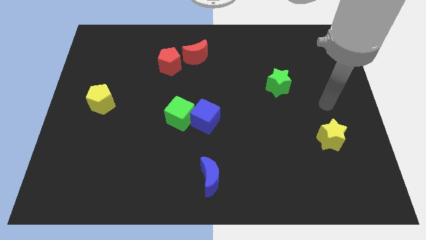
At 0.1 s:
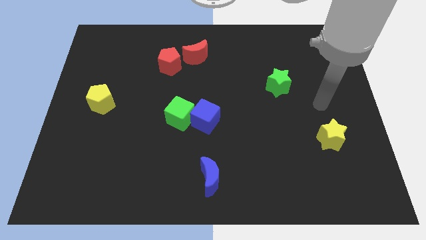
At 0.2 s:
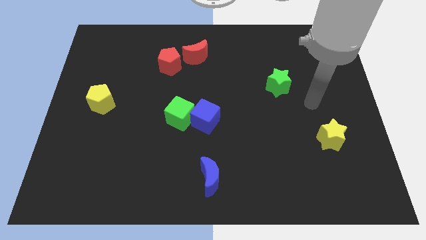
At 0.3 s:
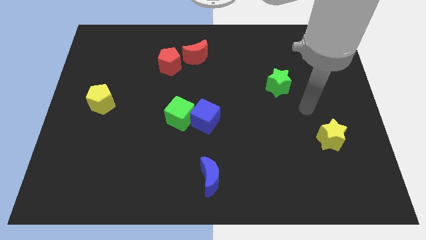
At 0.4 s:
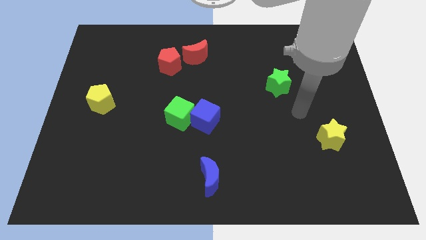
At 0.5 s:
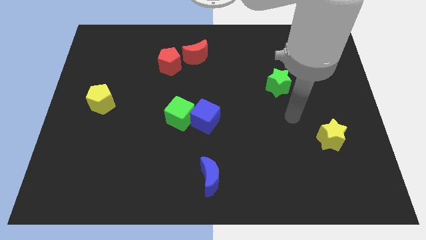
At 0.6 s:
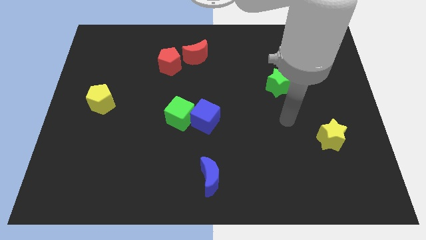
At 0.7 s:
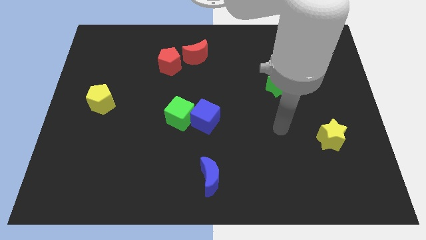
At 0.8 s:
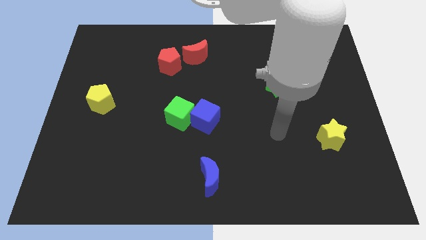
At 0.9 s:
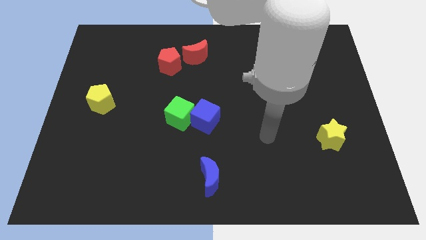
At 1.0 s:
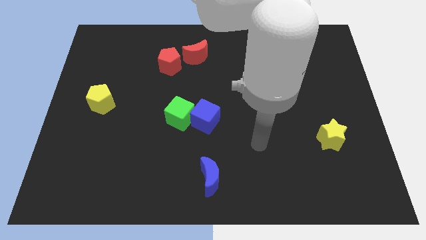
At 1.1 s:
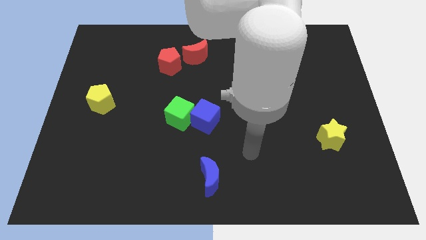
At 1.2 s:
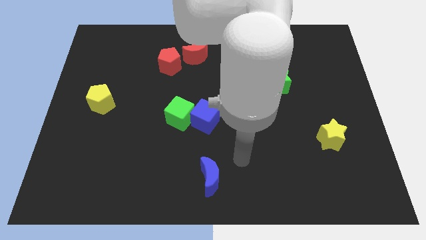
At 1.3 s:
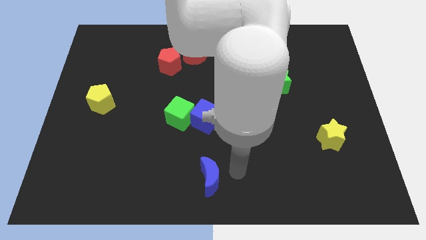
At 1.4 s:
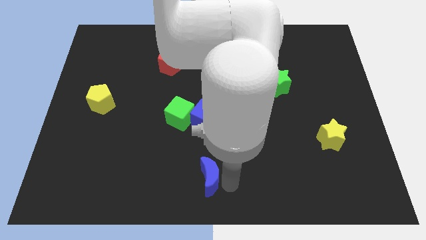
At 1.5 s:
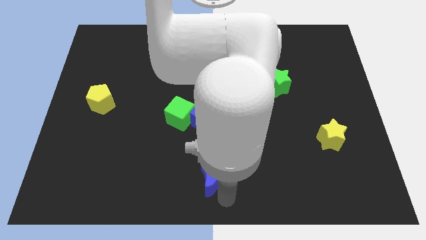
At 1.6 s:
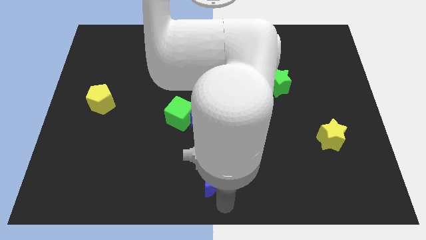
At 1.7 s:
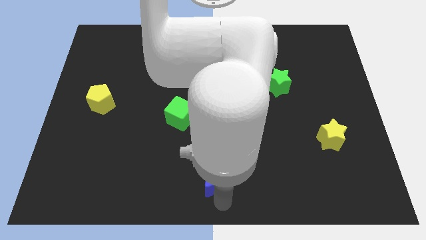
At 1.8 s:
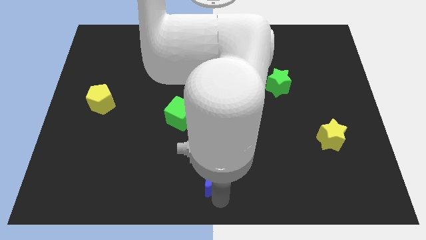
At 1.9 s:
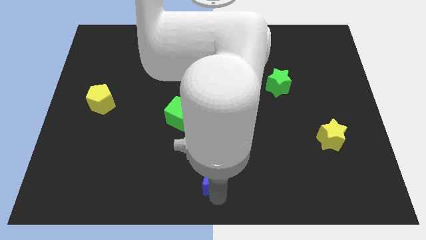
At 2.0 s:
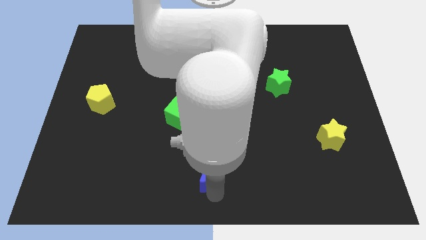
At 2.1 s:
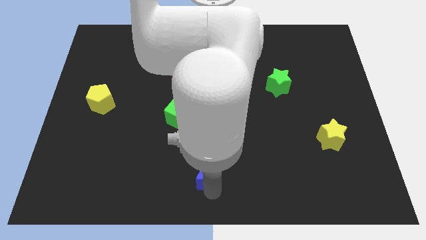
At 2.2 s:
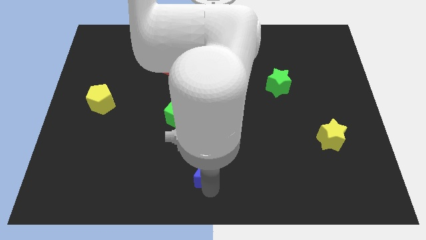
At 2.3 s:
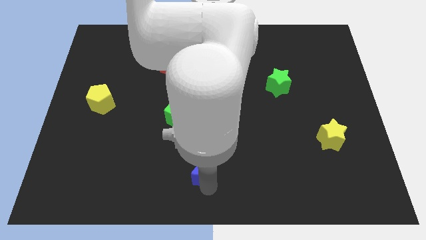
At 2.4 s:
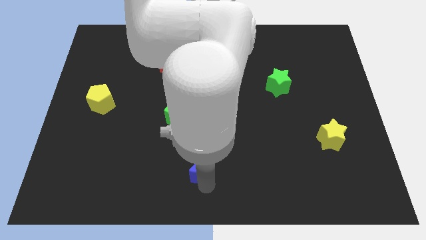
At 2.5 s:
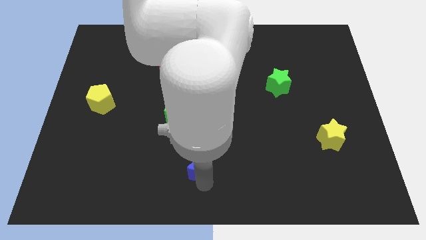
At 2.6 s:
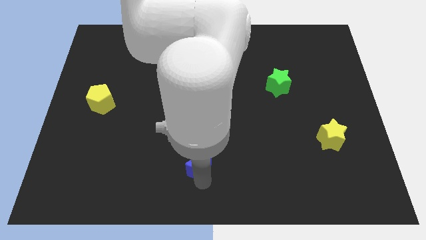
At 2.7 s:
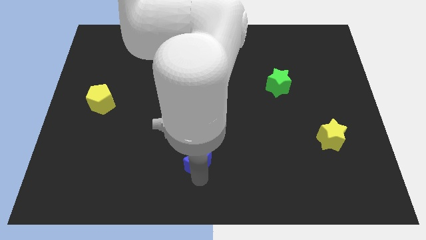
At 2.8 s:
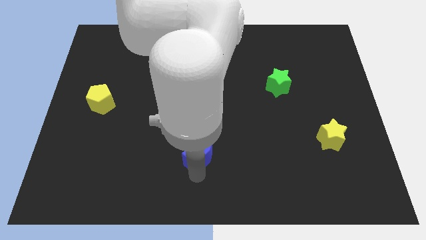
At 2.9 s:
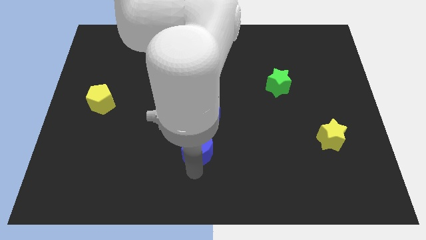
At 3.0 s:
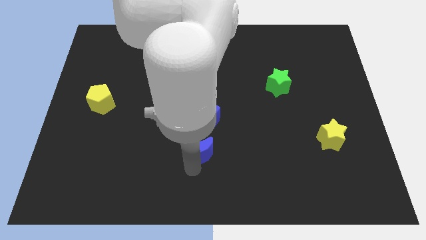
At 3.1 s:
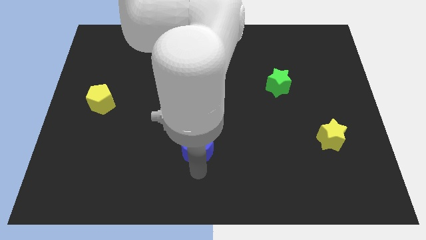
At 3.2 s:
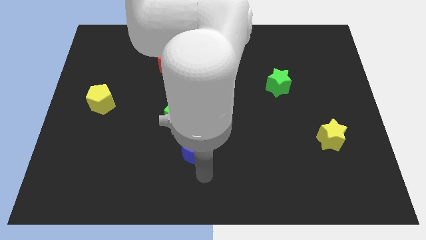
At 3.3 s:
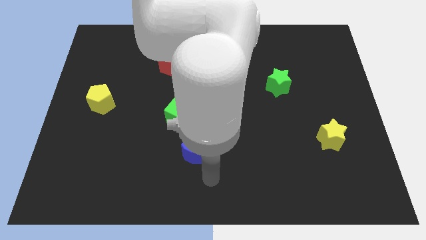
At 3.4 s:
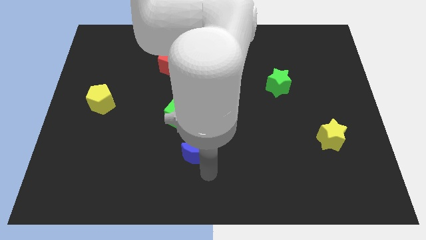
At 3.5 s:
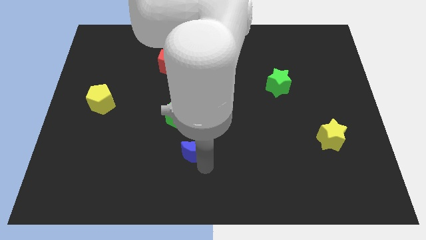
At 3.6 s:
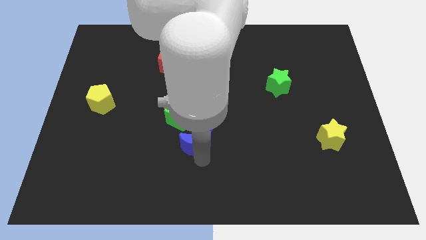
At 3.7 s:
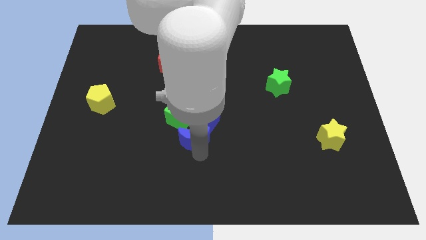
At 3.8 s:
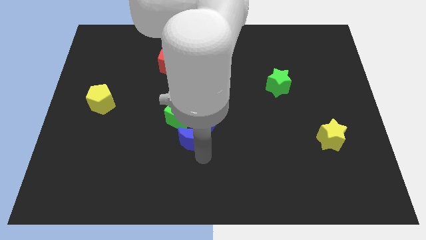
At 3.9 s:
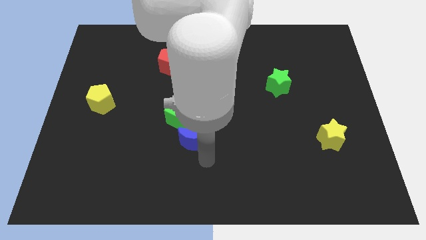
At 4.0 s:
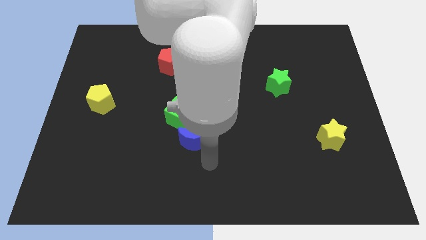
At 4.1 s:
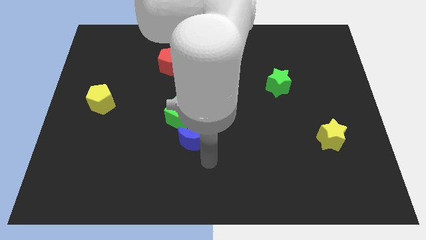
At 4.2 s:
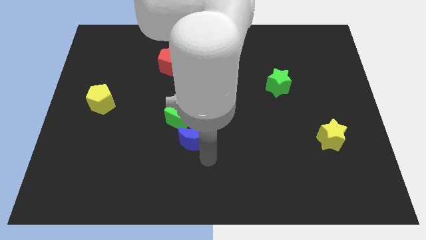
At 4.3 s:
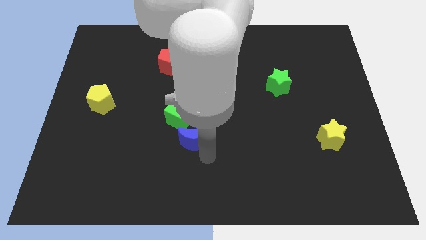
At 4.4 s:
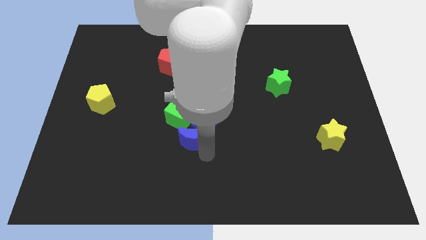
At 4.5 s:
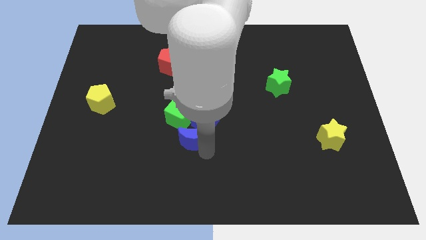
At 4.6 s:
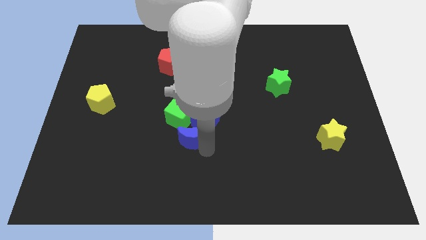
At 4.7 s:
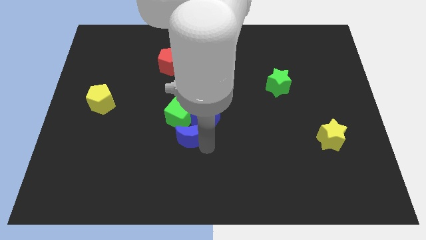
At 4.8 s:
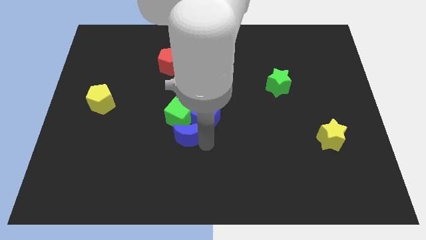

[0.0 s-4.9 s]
push the blue moon next to the green cube

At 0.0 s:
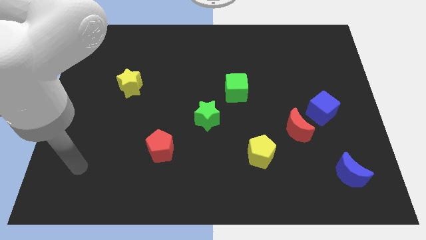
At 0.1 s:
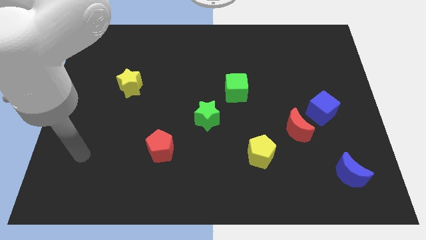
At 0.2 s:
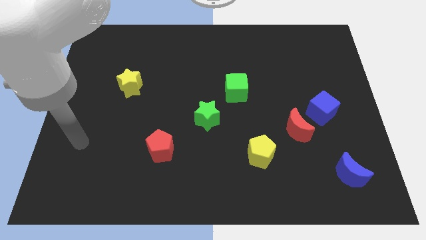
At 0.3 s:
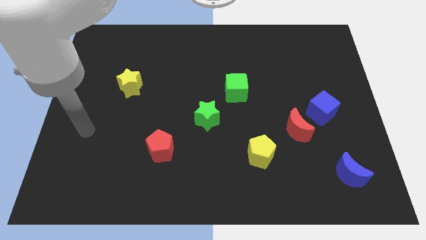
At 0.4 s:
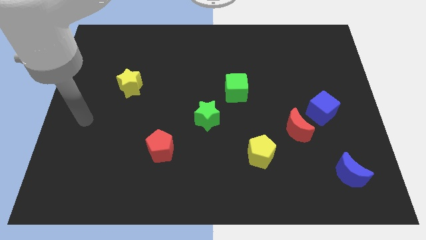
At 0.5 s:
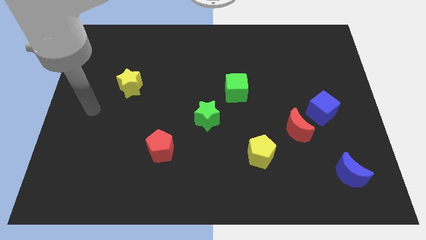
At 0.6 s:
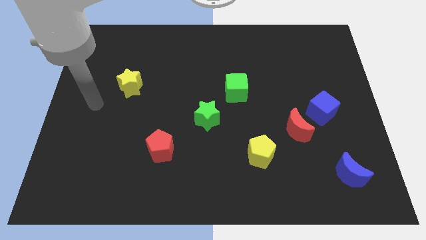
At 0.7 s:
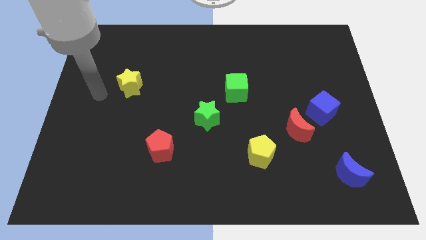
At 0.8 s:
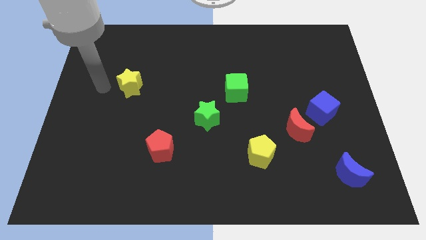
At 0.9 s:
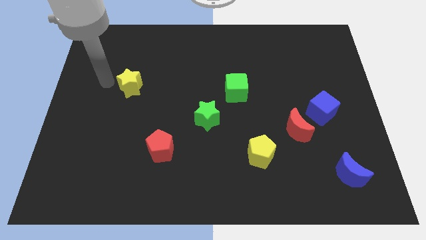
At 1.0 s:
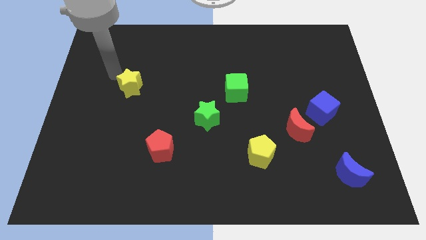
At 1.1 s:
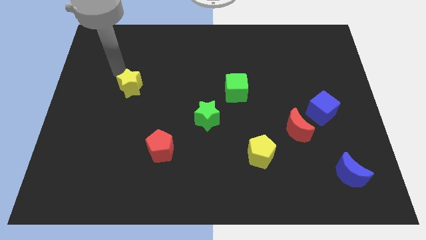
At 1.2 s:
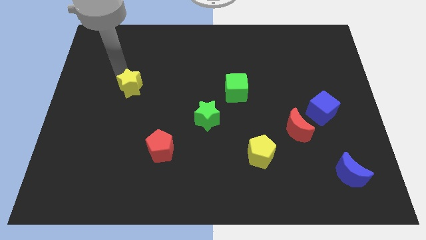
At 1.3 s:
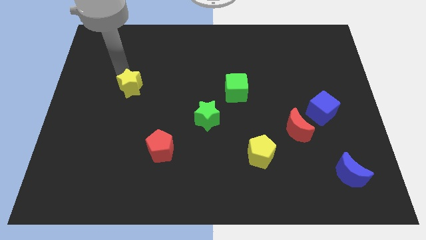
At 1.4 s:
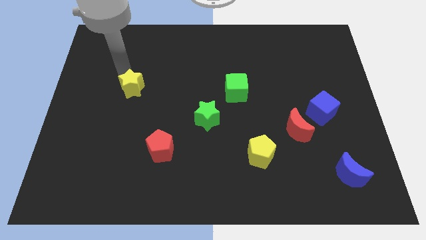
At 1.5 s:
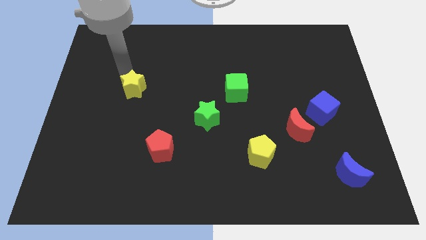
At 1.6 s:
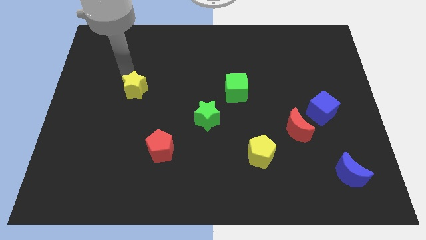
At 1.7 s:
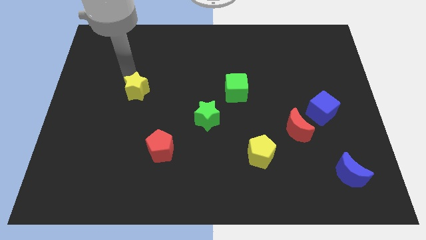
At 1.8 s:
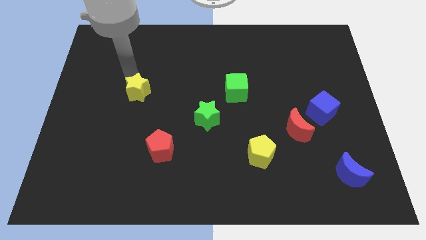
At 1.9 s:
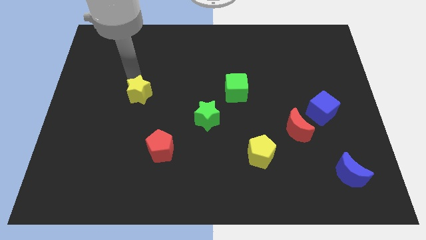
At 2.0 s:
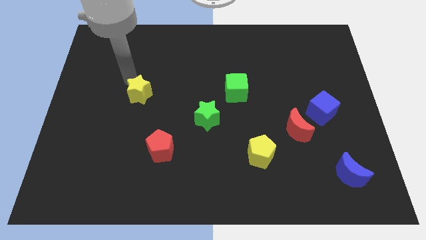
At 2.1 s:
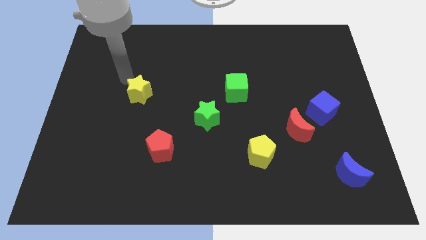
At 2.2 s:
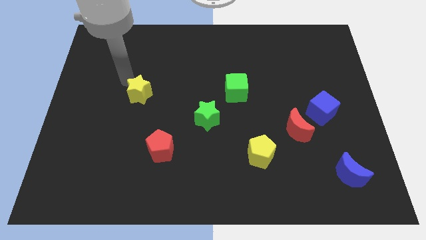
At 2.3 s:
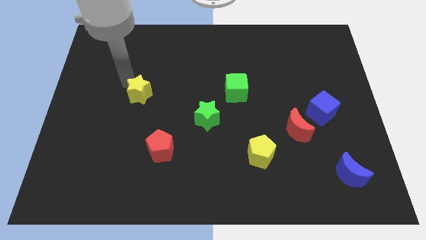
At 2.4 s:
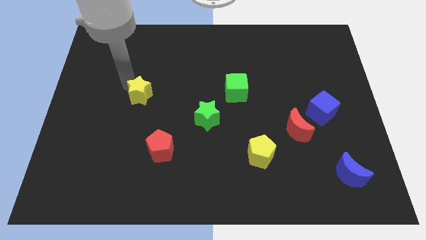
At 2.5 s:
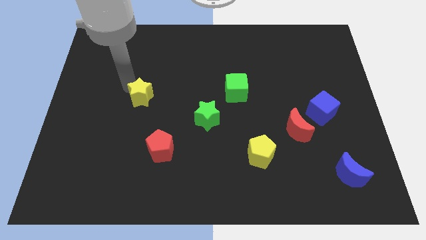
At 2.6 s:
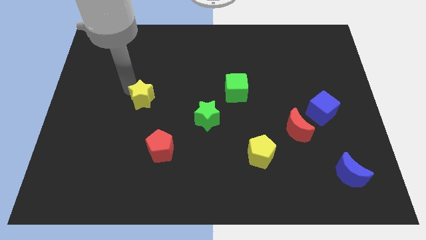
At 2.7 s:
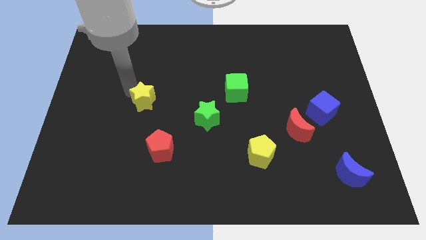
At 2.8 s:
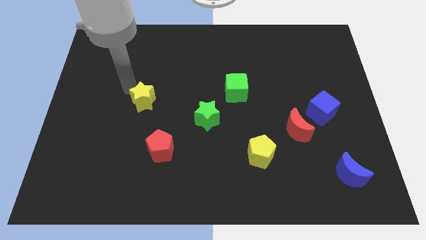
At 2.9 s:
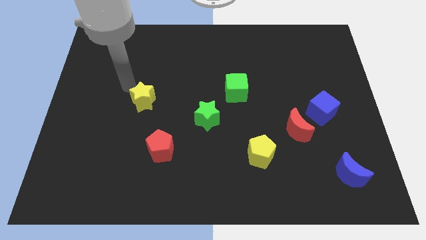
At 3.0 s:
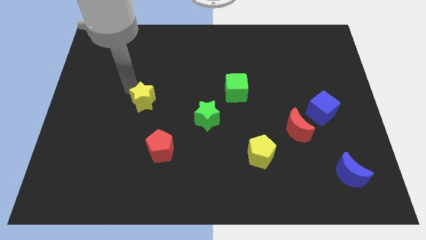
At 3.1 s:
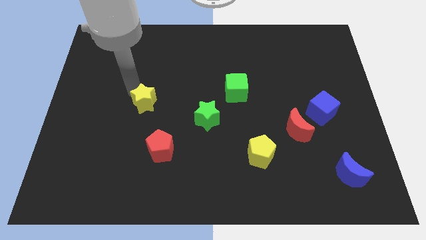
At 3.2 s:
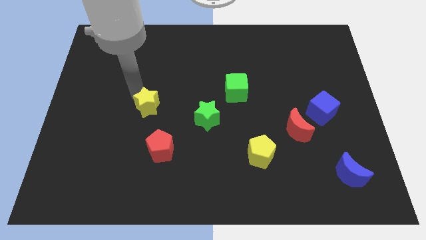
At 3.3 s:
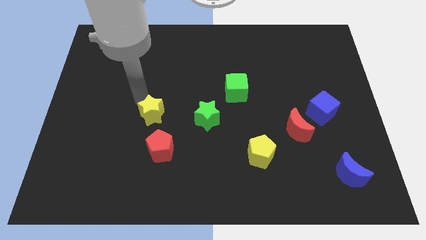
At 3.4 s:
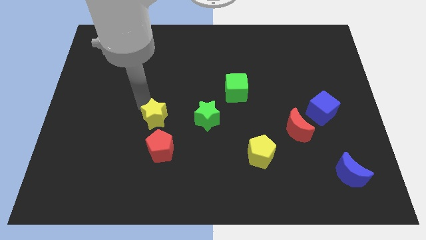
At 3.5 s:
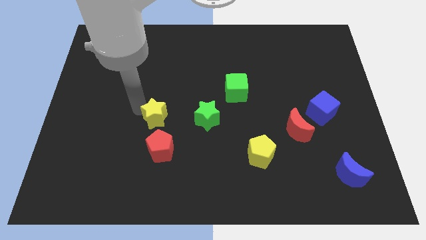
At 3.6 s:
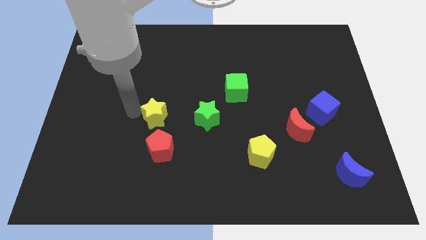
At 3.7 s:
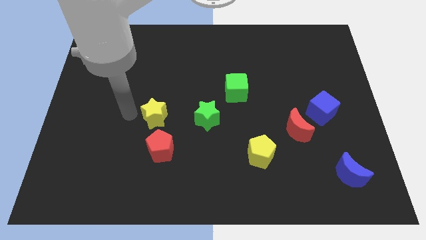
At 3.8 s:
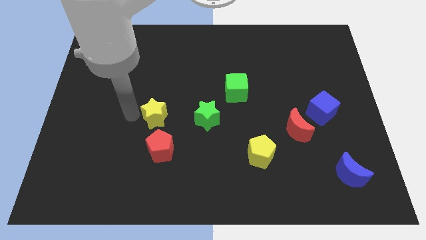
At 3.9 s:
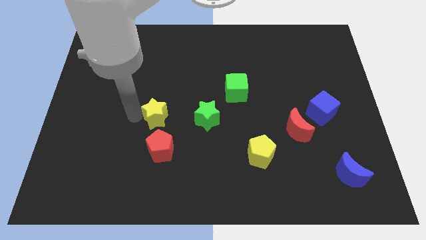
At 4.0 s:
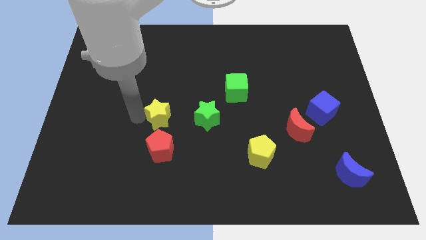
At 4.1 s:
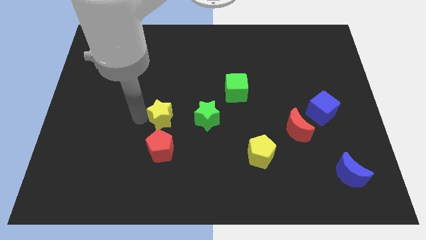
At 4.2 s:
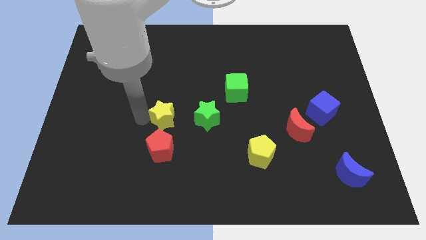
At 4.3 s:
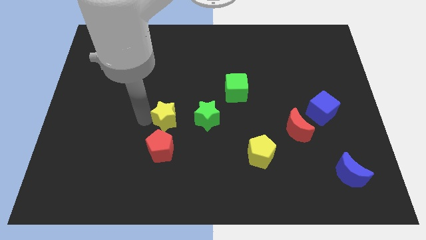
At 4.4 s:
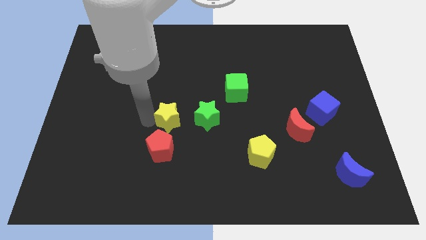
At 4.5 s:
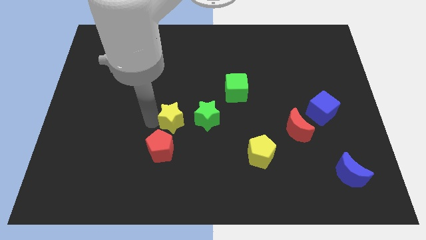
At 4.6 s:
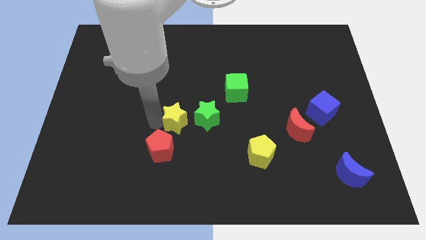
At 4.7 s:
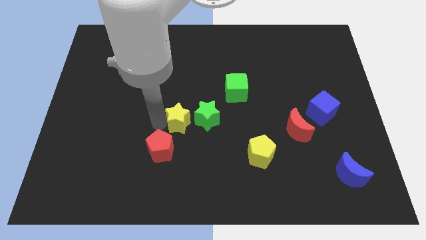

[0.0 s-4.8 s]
slide the yellow star to the green star
